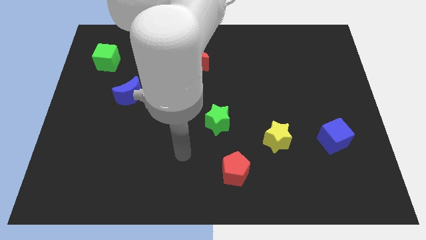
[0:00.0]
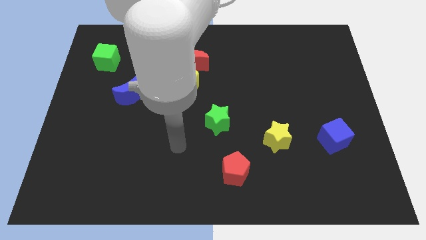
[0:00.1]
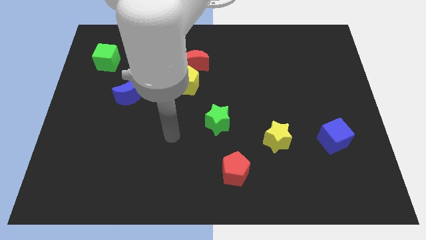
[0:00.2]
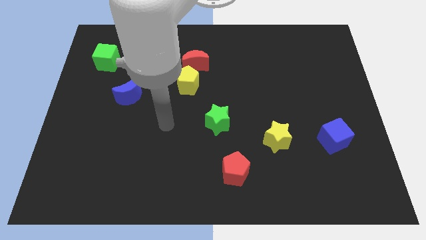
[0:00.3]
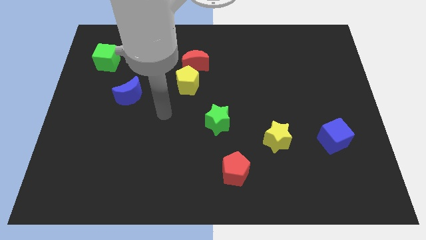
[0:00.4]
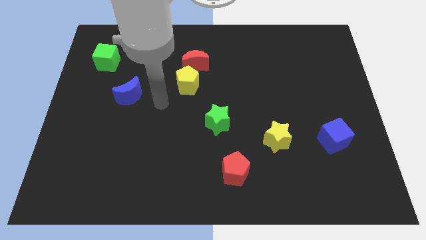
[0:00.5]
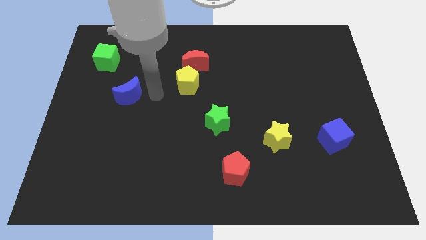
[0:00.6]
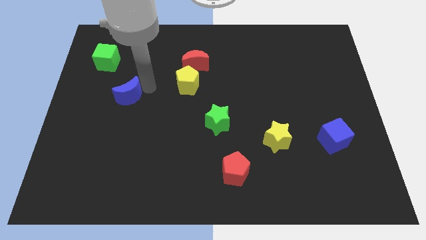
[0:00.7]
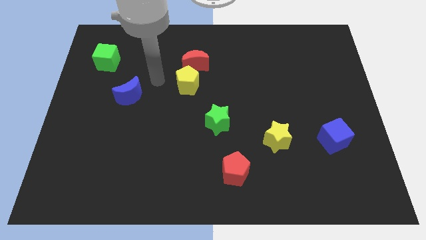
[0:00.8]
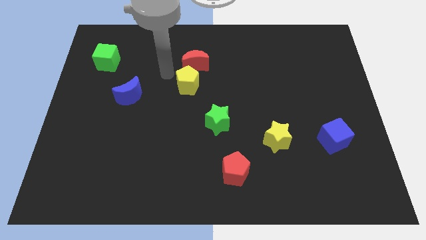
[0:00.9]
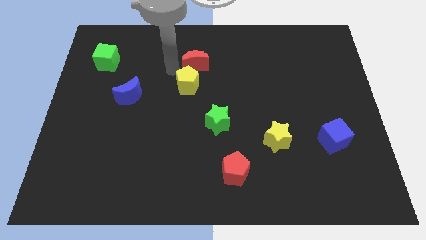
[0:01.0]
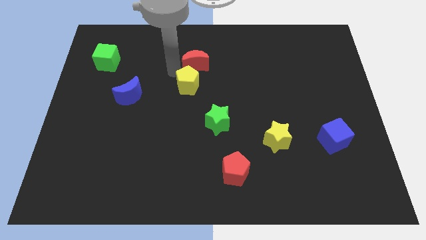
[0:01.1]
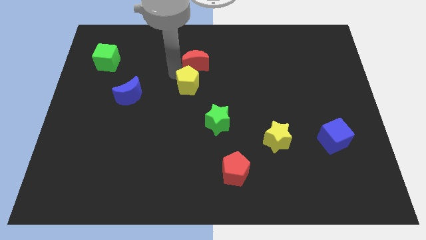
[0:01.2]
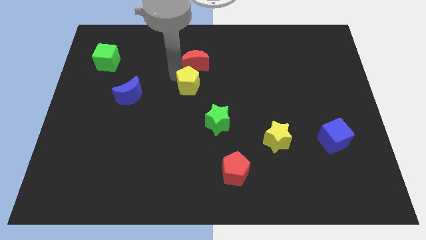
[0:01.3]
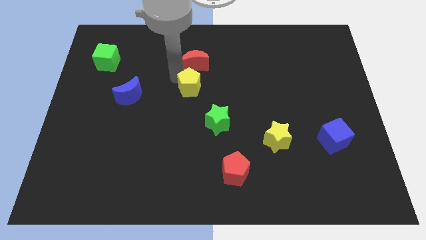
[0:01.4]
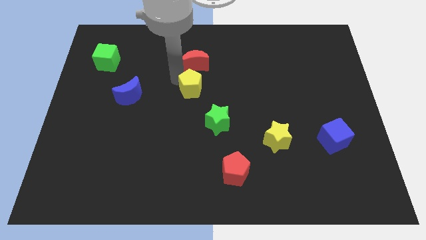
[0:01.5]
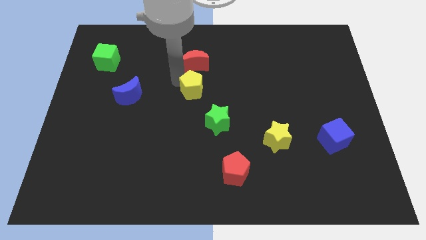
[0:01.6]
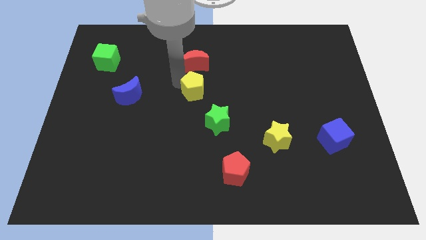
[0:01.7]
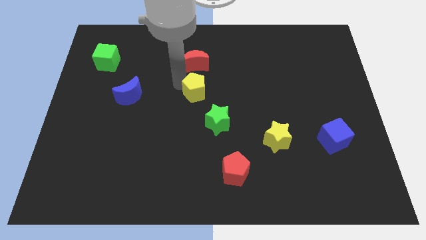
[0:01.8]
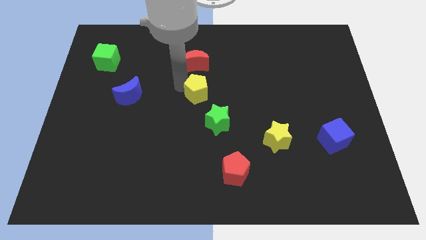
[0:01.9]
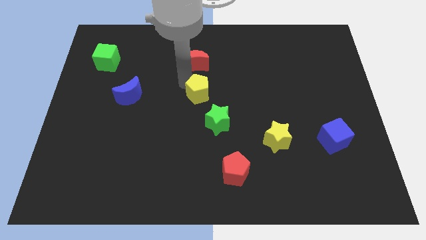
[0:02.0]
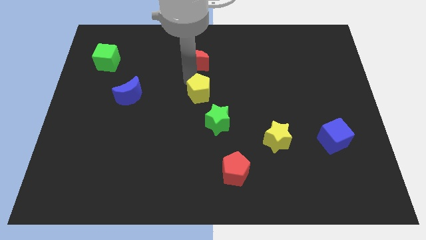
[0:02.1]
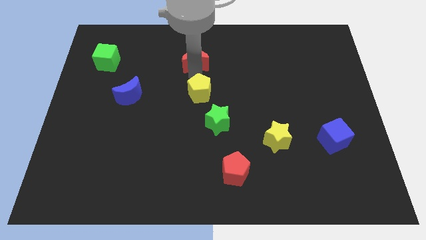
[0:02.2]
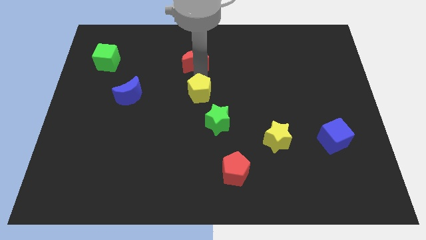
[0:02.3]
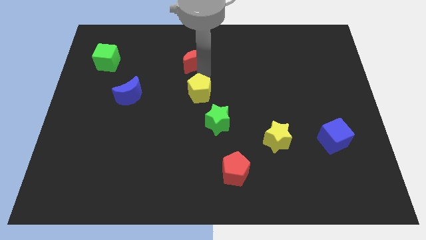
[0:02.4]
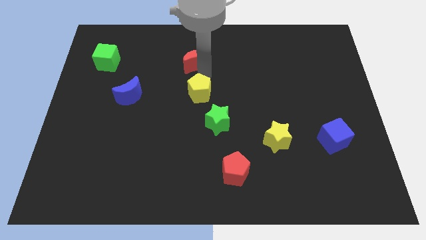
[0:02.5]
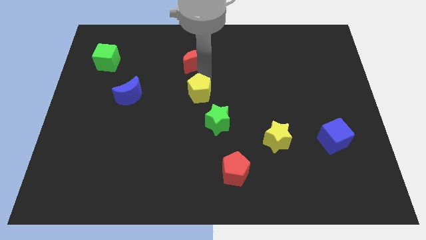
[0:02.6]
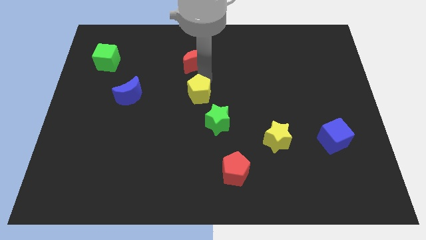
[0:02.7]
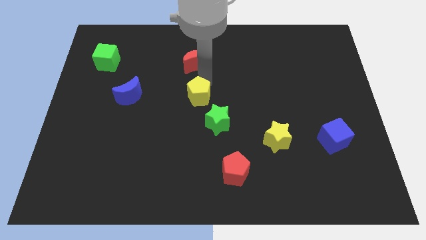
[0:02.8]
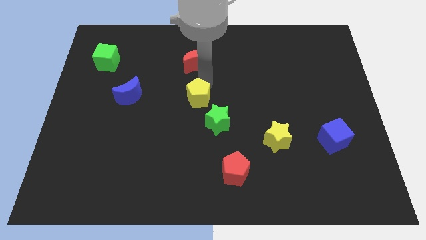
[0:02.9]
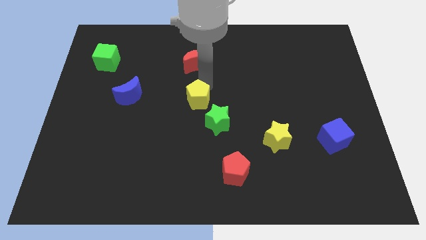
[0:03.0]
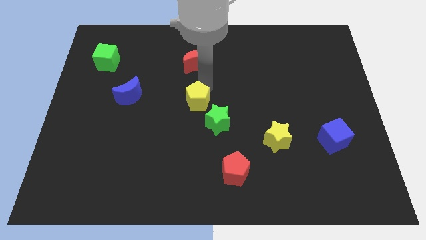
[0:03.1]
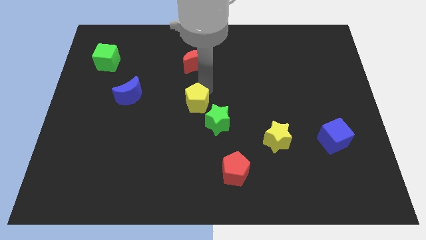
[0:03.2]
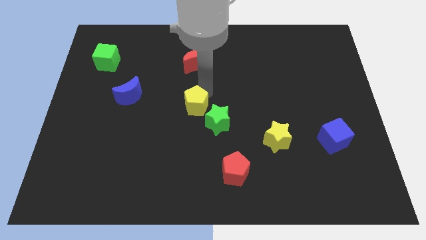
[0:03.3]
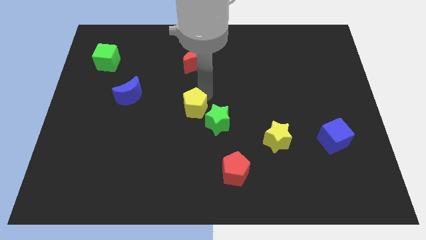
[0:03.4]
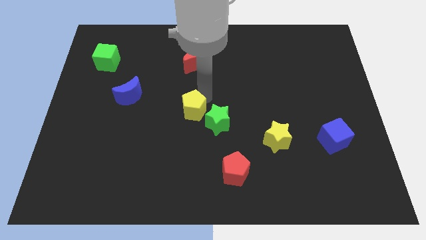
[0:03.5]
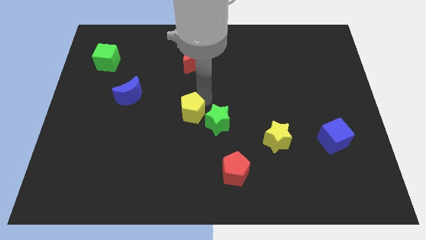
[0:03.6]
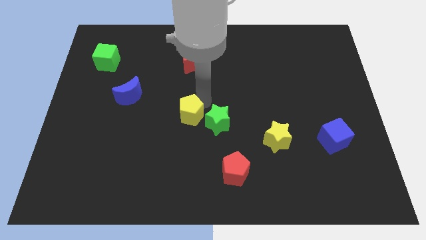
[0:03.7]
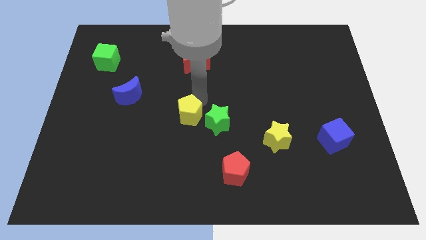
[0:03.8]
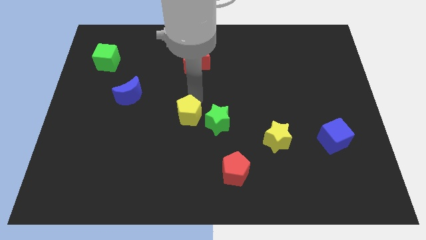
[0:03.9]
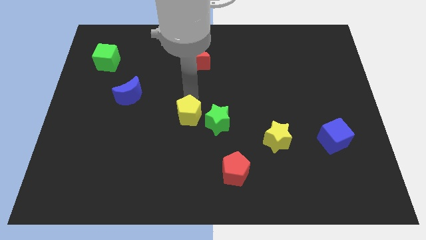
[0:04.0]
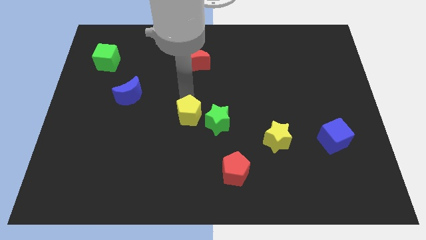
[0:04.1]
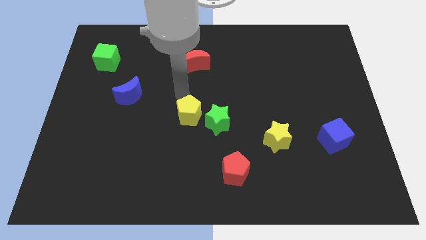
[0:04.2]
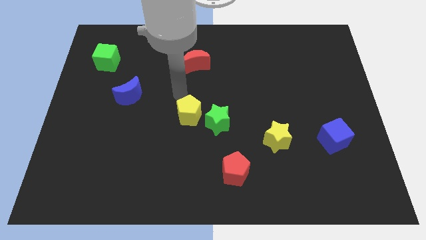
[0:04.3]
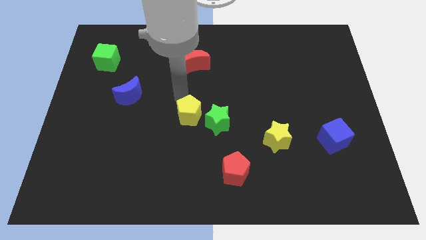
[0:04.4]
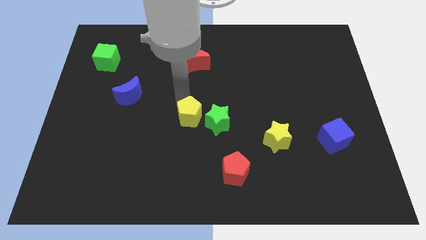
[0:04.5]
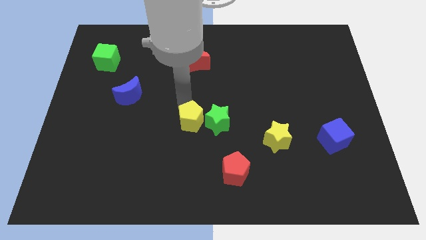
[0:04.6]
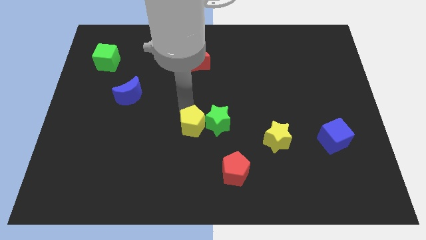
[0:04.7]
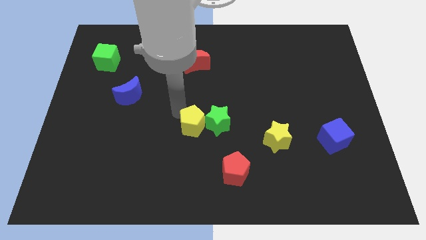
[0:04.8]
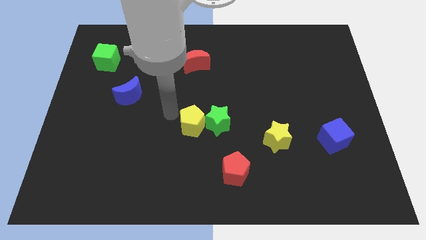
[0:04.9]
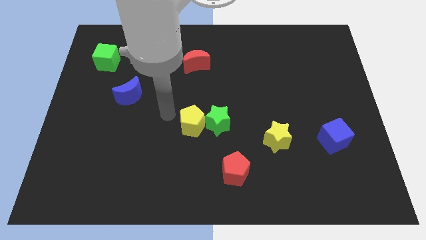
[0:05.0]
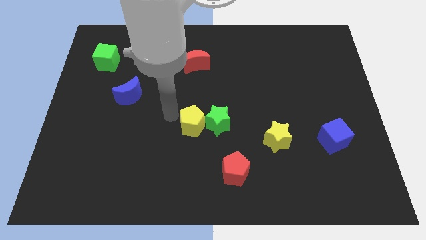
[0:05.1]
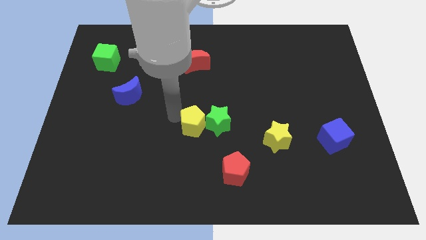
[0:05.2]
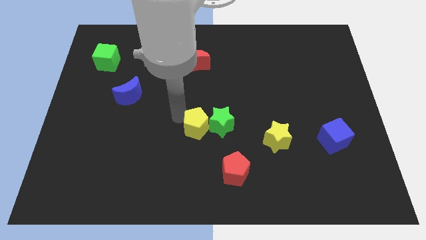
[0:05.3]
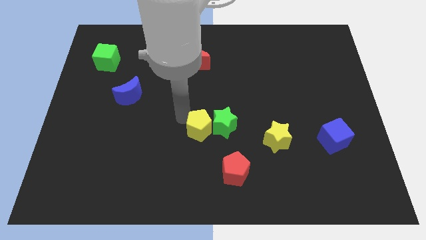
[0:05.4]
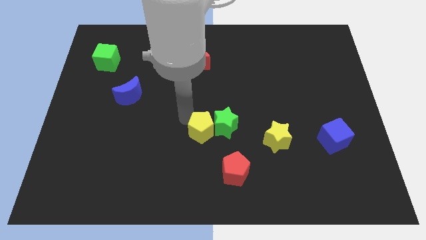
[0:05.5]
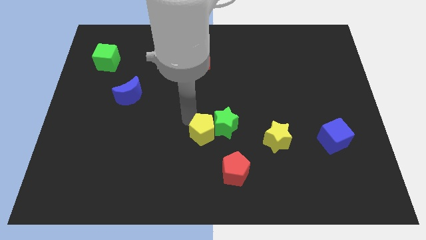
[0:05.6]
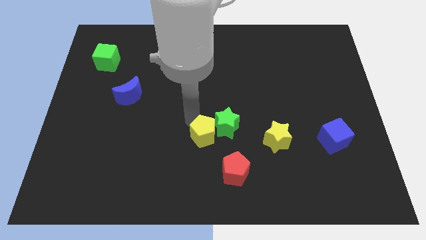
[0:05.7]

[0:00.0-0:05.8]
slide the yellow pentagon to the left side of the yellow star

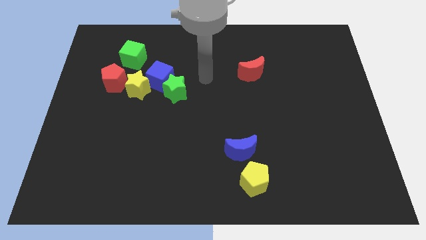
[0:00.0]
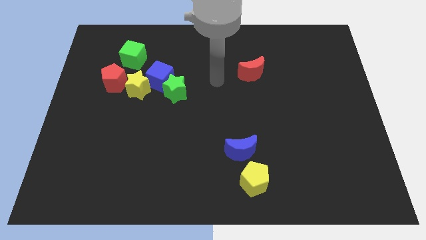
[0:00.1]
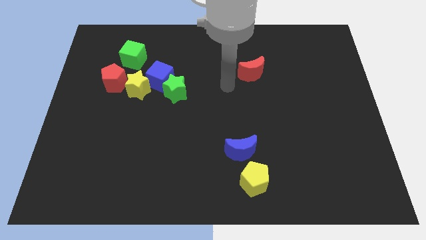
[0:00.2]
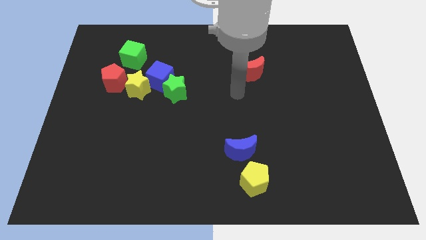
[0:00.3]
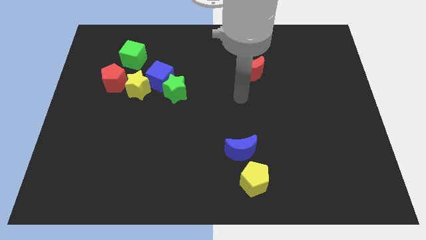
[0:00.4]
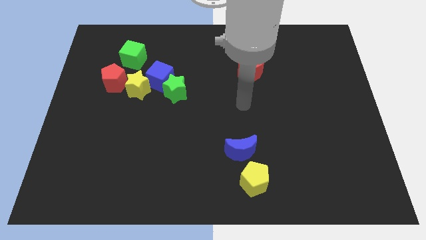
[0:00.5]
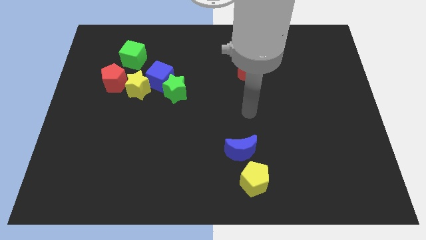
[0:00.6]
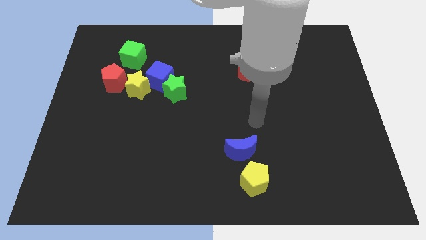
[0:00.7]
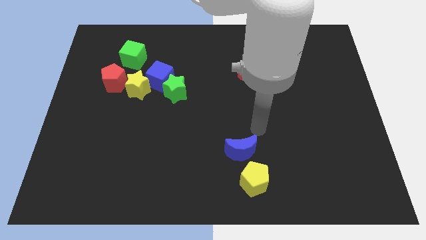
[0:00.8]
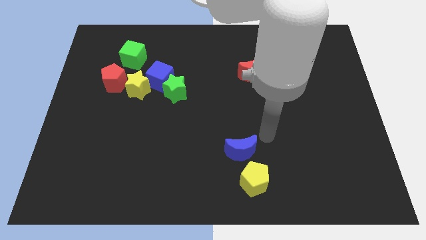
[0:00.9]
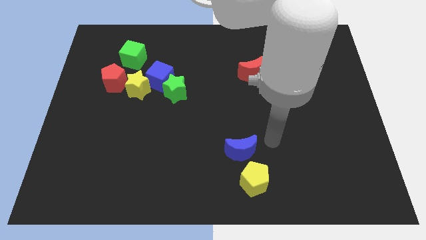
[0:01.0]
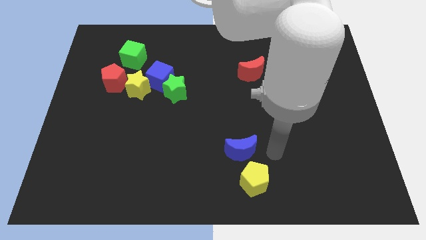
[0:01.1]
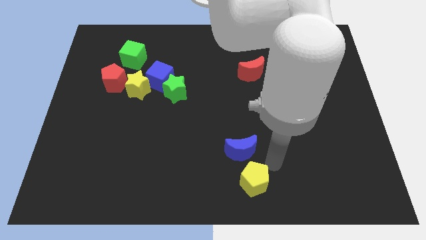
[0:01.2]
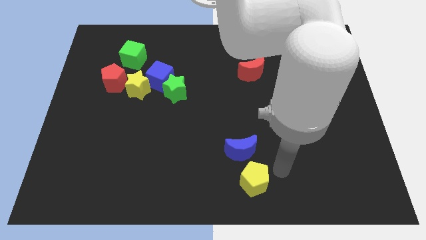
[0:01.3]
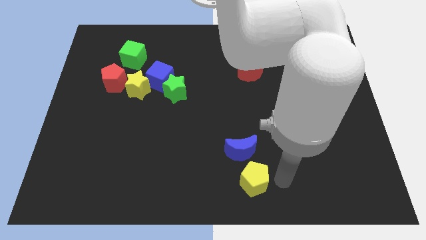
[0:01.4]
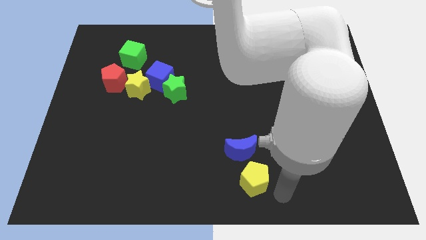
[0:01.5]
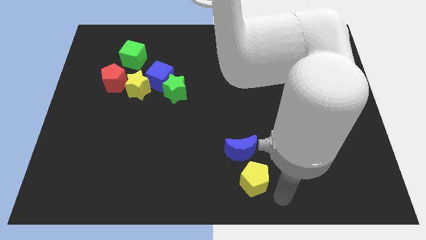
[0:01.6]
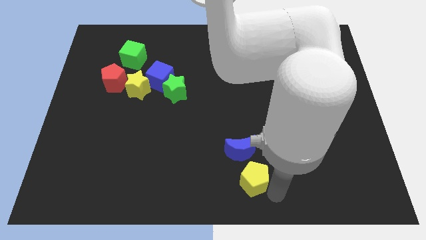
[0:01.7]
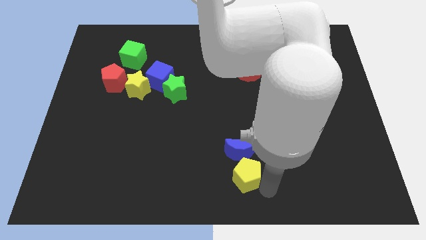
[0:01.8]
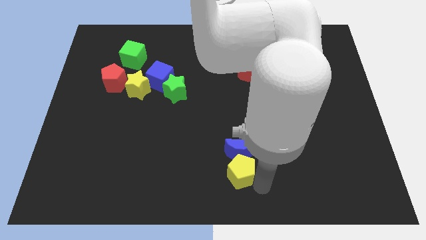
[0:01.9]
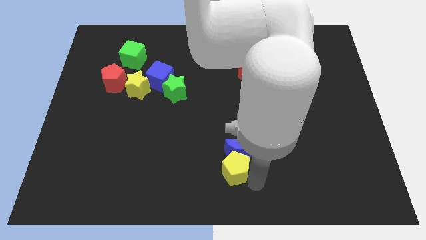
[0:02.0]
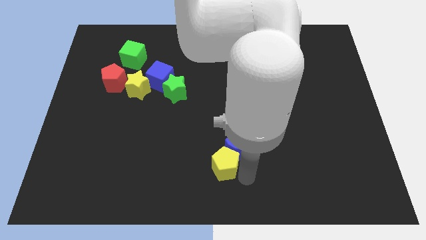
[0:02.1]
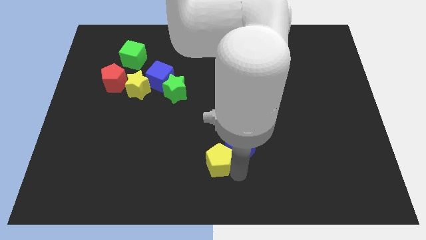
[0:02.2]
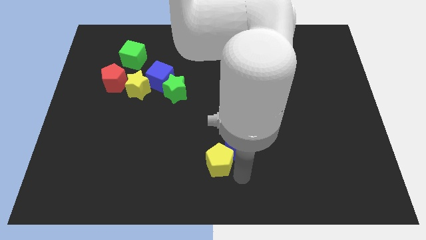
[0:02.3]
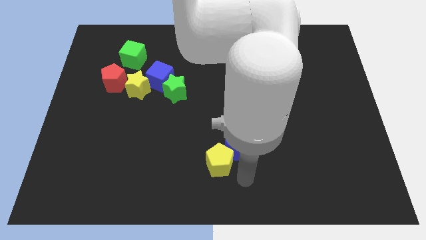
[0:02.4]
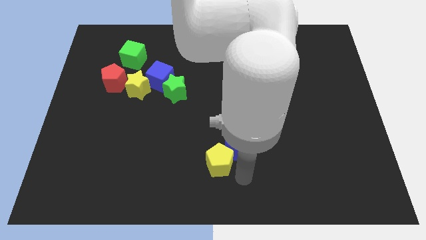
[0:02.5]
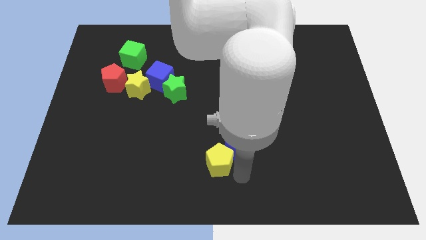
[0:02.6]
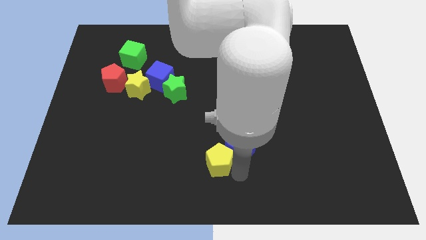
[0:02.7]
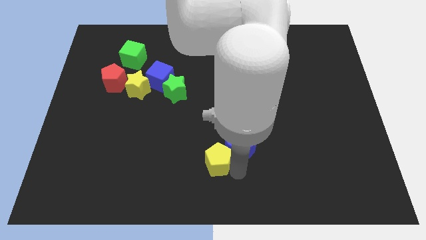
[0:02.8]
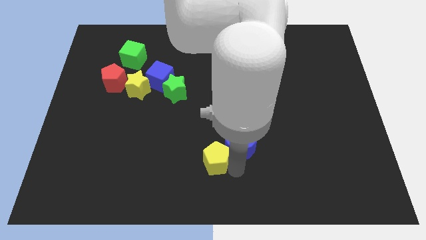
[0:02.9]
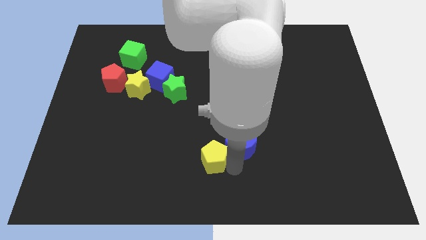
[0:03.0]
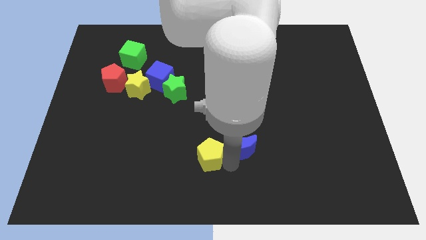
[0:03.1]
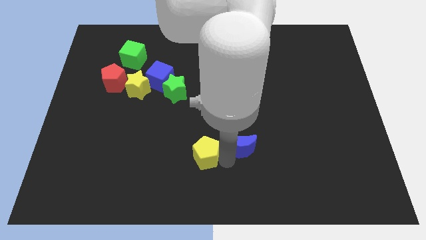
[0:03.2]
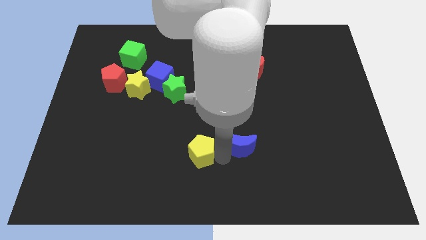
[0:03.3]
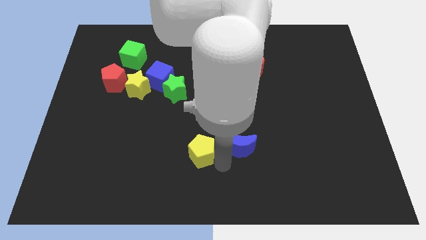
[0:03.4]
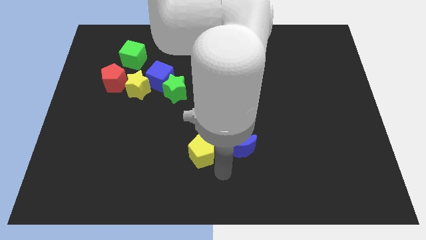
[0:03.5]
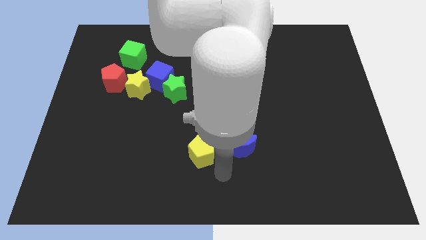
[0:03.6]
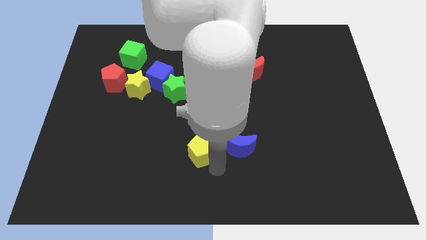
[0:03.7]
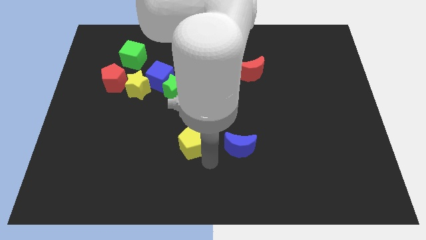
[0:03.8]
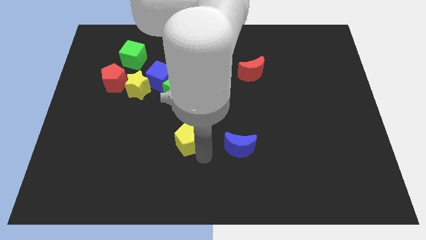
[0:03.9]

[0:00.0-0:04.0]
move the yellow pentagon to the bottom of the green star
